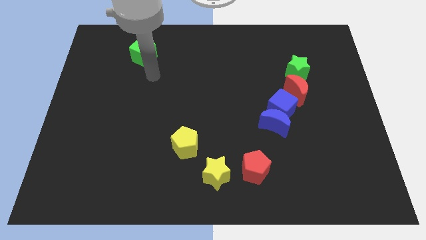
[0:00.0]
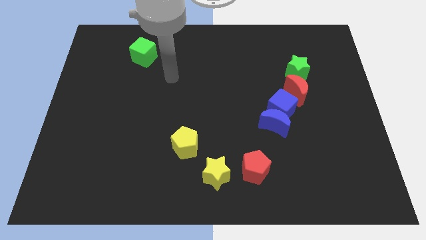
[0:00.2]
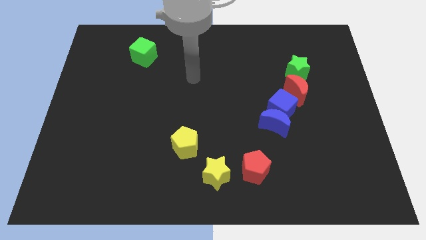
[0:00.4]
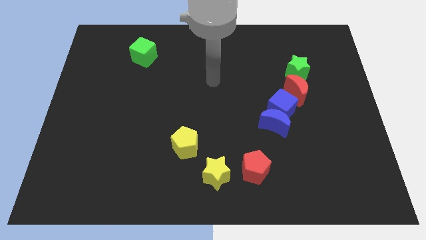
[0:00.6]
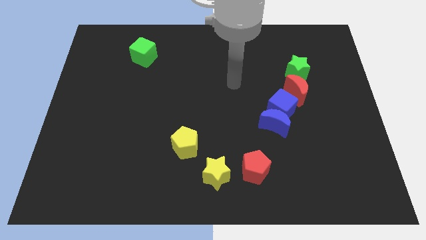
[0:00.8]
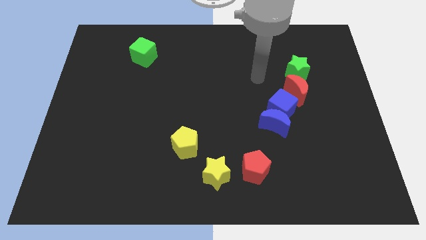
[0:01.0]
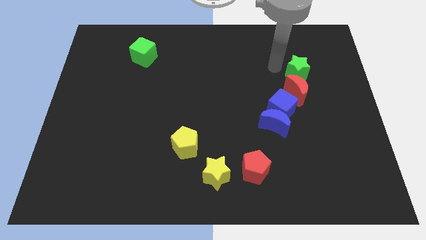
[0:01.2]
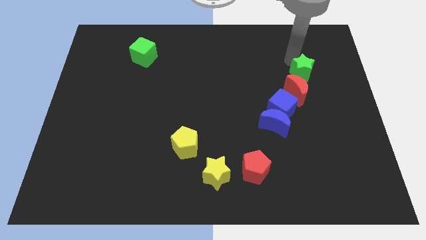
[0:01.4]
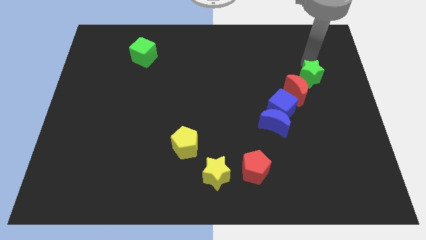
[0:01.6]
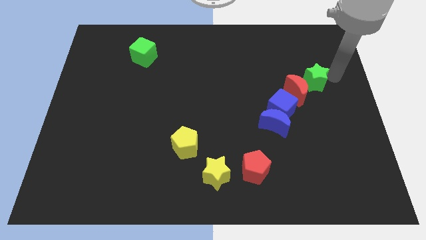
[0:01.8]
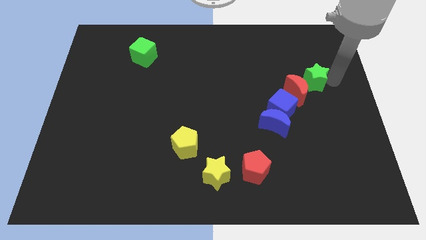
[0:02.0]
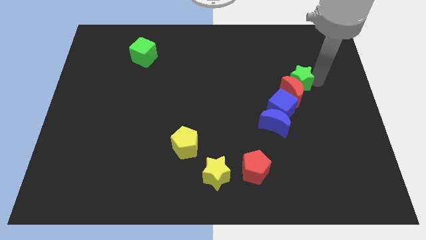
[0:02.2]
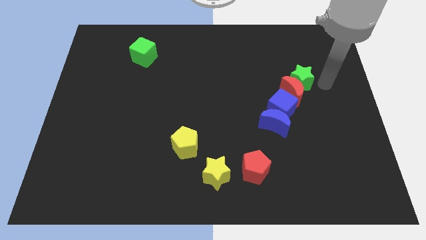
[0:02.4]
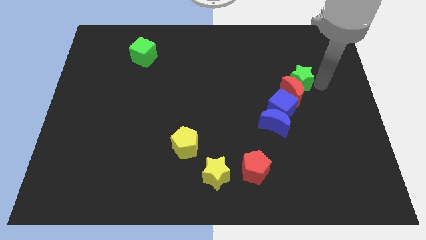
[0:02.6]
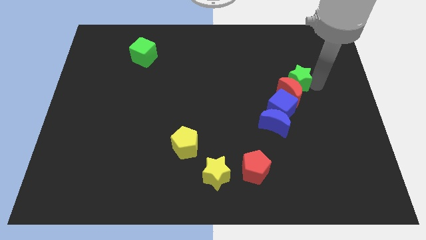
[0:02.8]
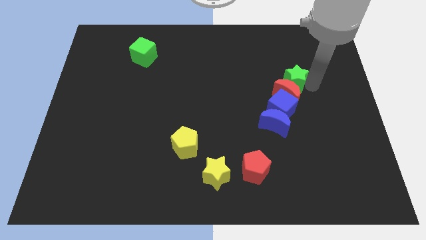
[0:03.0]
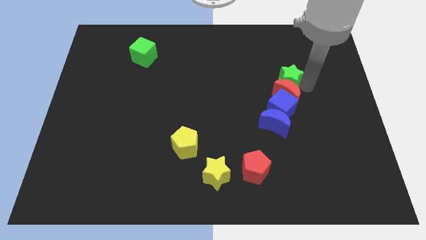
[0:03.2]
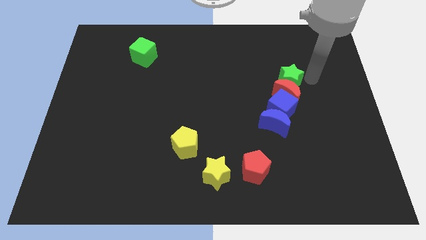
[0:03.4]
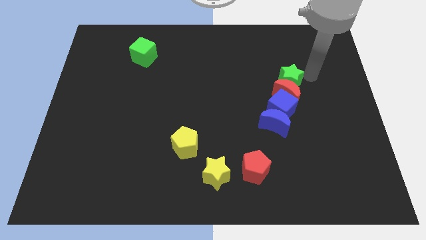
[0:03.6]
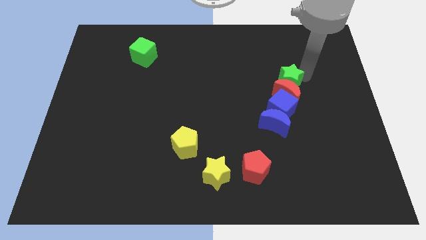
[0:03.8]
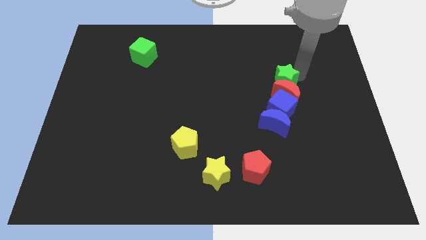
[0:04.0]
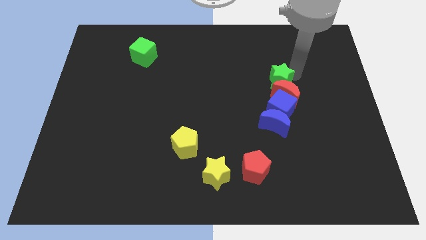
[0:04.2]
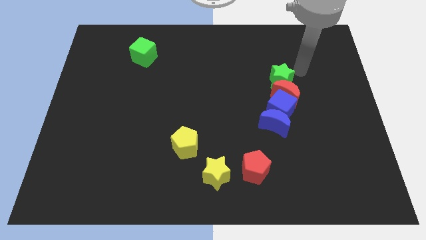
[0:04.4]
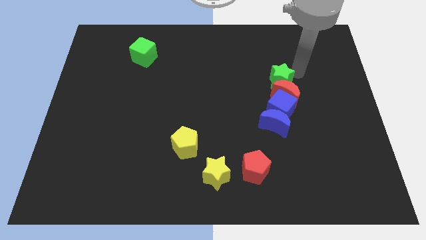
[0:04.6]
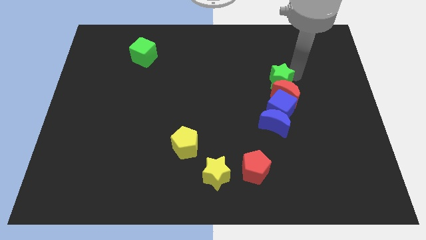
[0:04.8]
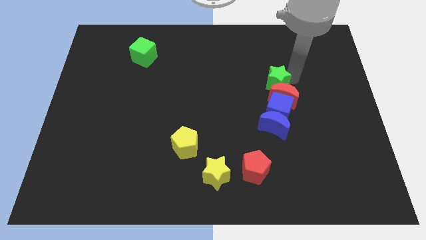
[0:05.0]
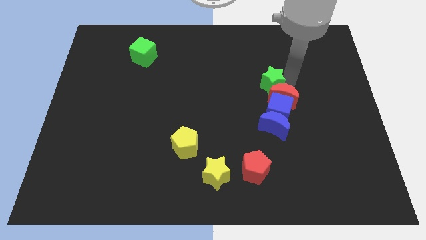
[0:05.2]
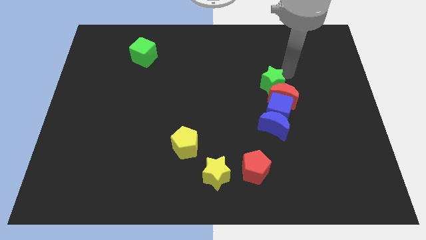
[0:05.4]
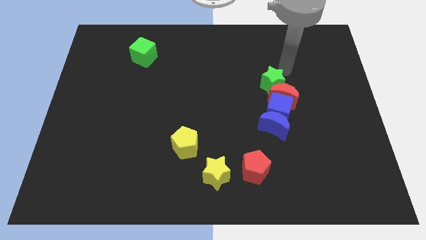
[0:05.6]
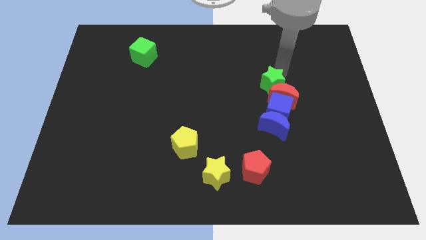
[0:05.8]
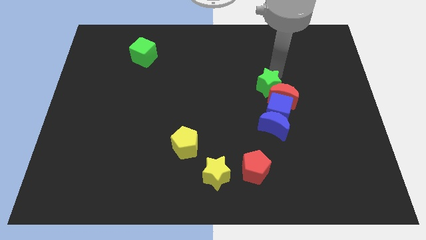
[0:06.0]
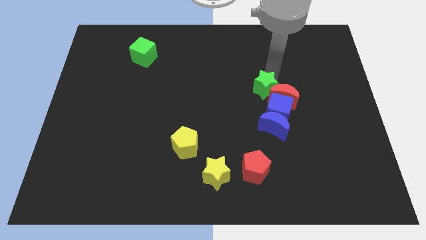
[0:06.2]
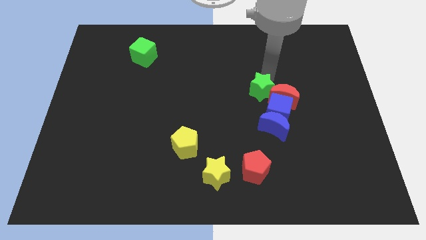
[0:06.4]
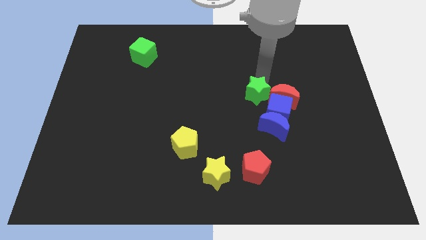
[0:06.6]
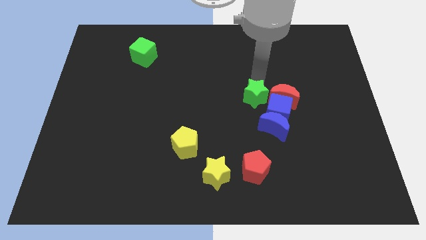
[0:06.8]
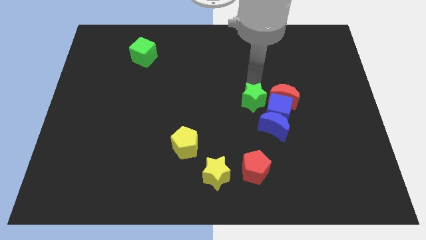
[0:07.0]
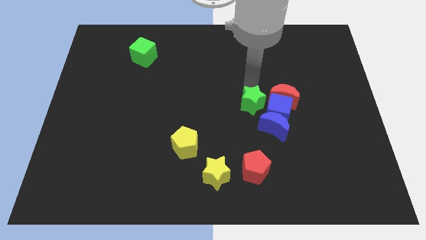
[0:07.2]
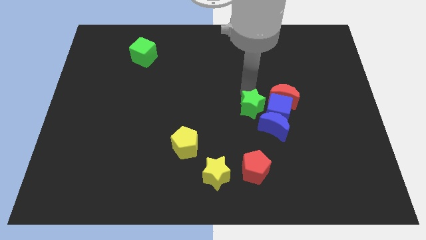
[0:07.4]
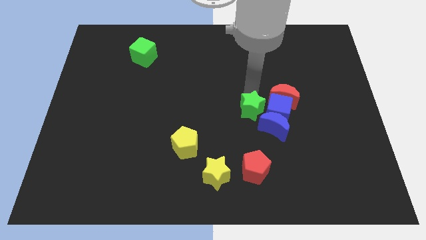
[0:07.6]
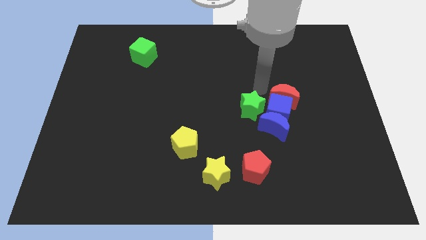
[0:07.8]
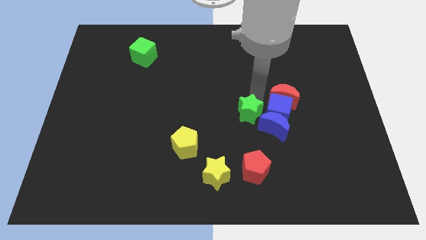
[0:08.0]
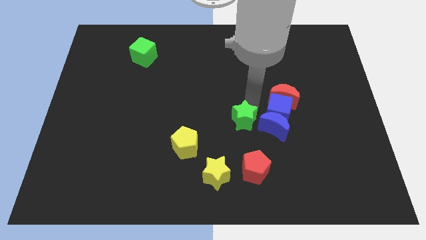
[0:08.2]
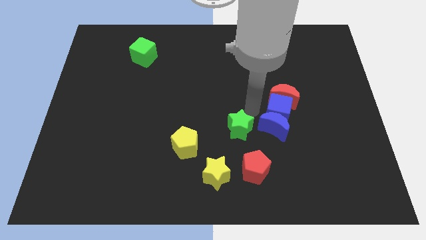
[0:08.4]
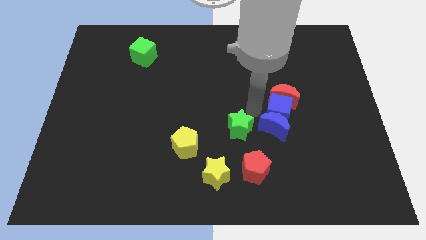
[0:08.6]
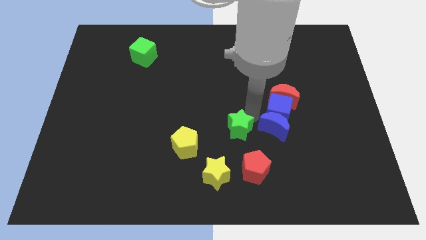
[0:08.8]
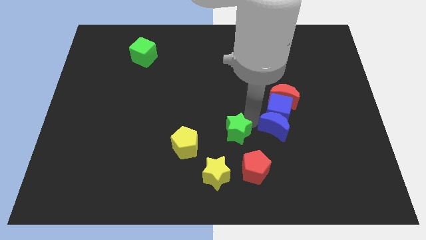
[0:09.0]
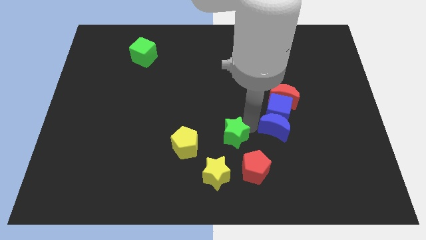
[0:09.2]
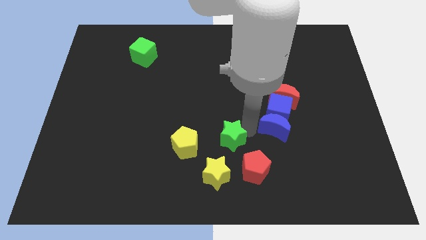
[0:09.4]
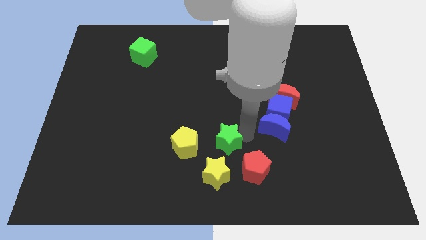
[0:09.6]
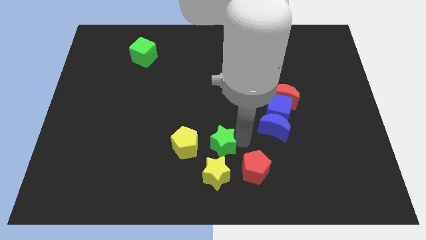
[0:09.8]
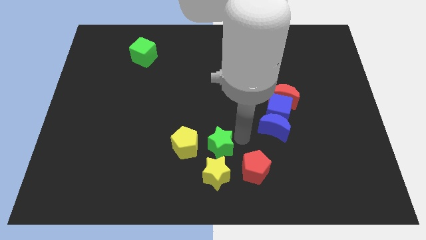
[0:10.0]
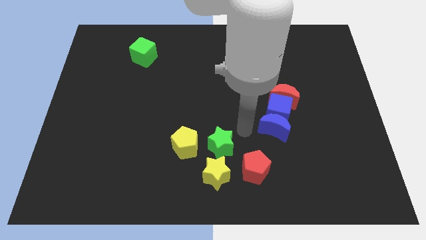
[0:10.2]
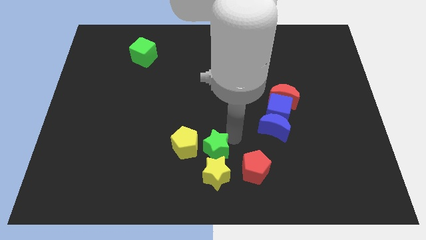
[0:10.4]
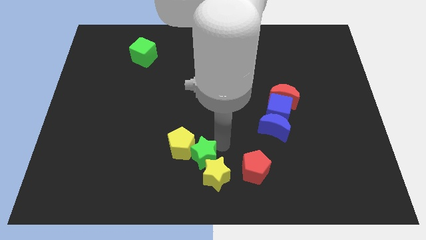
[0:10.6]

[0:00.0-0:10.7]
slide the green star to the bottom
